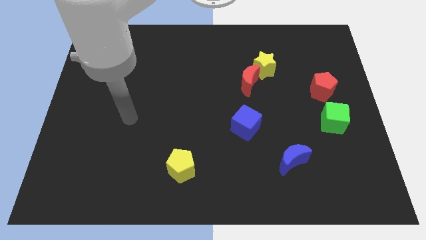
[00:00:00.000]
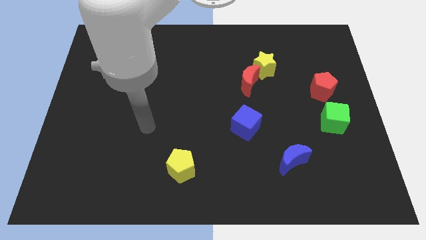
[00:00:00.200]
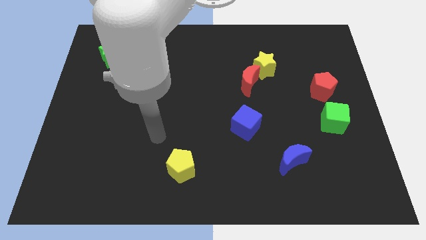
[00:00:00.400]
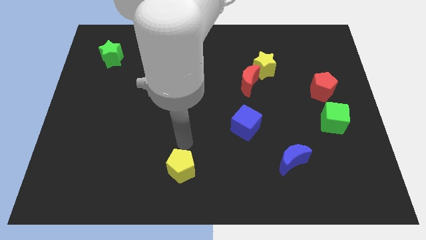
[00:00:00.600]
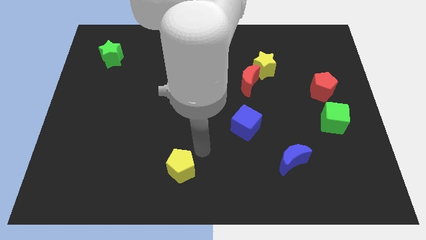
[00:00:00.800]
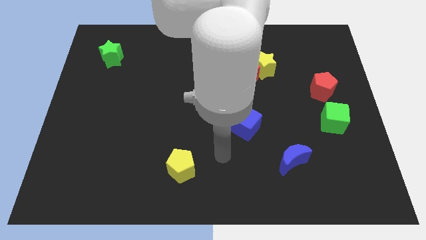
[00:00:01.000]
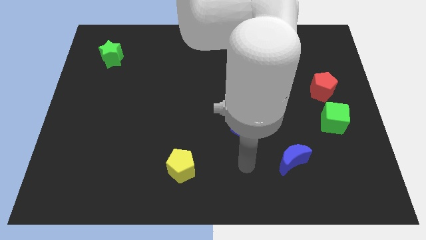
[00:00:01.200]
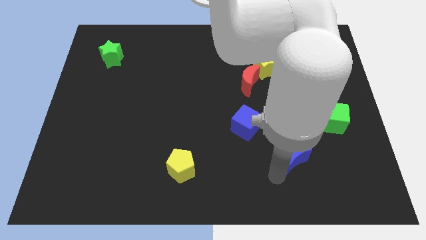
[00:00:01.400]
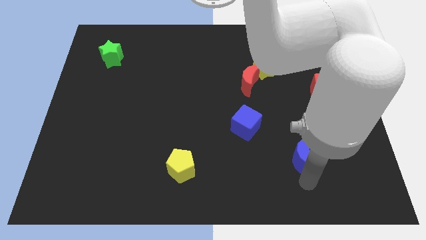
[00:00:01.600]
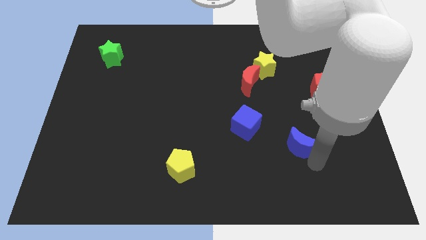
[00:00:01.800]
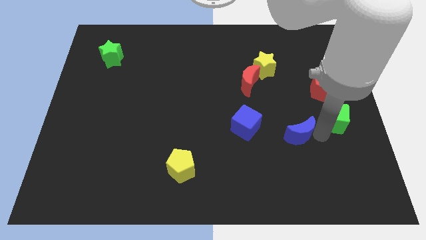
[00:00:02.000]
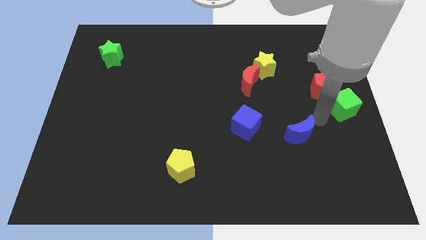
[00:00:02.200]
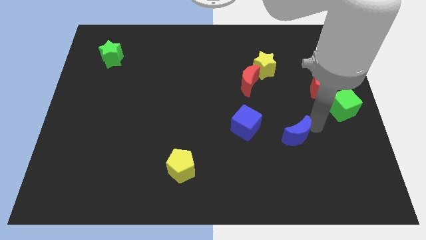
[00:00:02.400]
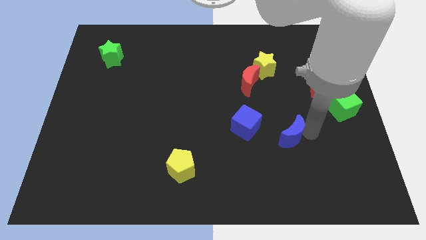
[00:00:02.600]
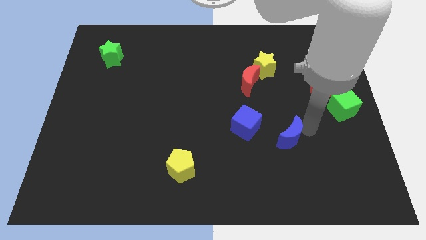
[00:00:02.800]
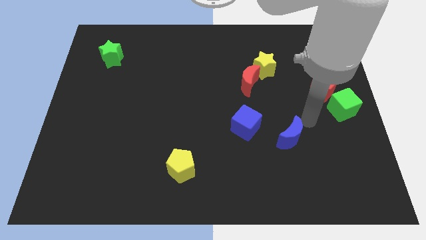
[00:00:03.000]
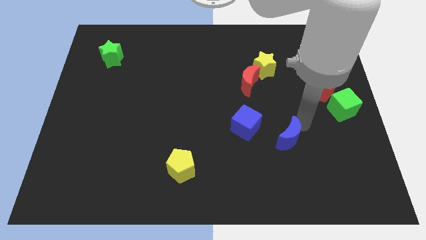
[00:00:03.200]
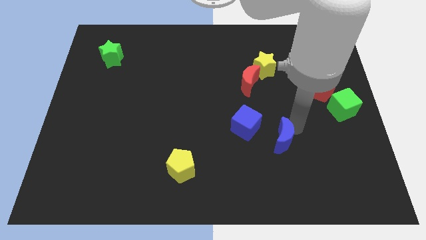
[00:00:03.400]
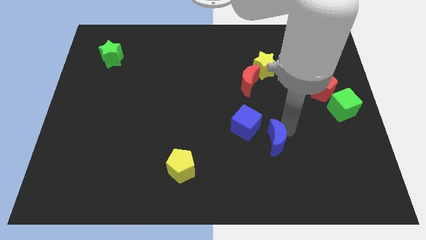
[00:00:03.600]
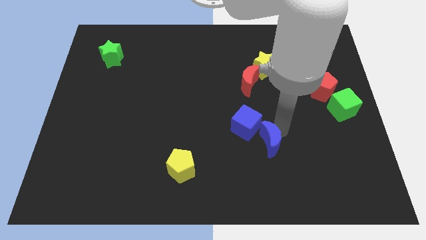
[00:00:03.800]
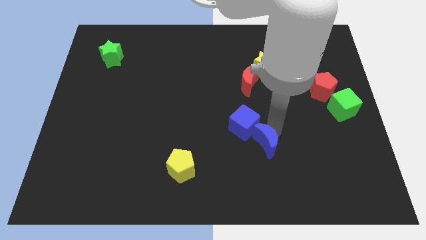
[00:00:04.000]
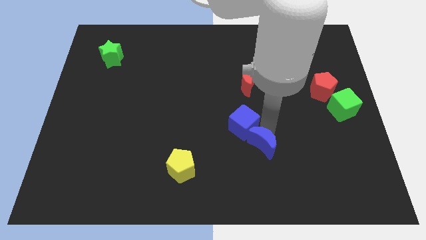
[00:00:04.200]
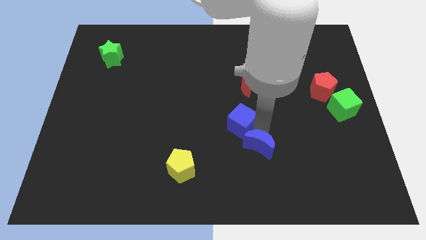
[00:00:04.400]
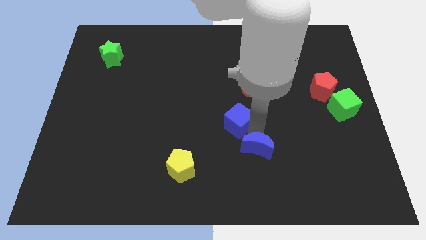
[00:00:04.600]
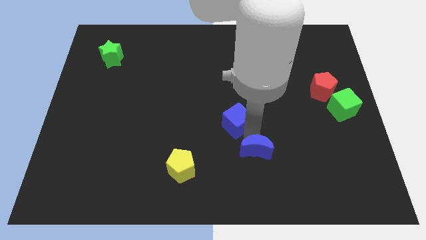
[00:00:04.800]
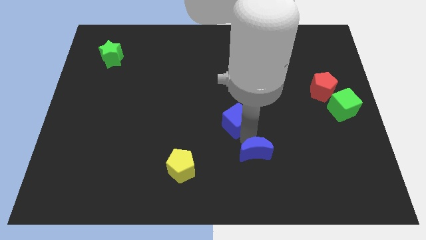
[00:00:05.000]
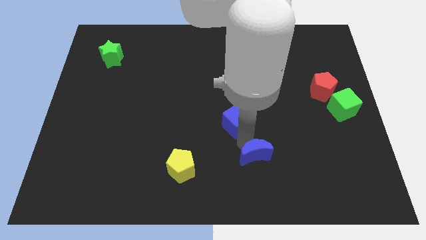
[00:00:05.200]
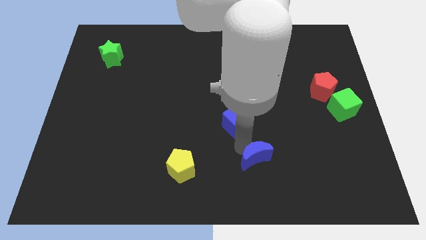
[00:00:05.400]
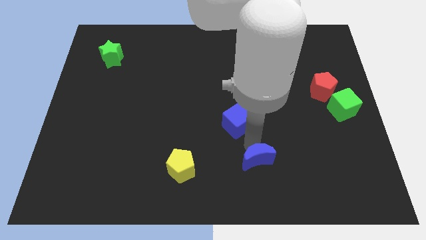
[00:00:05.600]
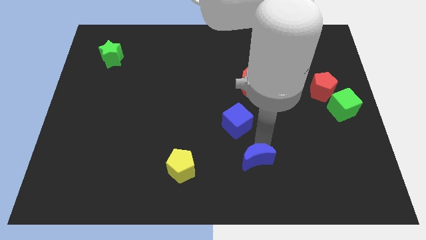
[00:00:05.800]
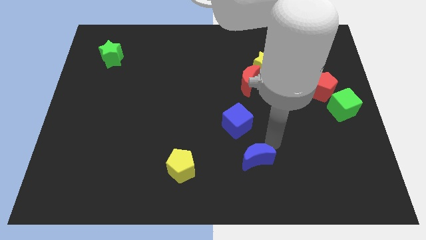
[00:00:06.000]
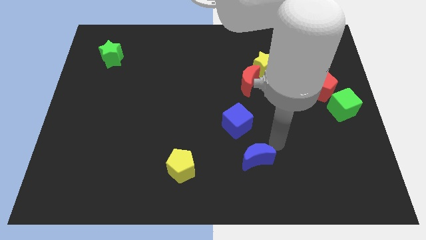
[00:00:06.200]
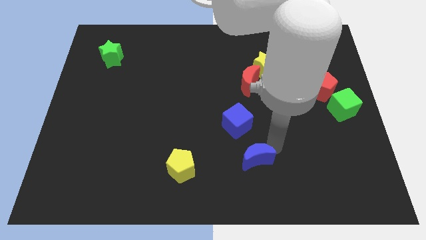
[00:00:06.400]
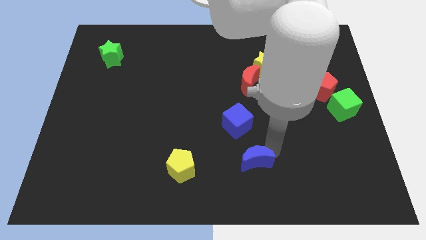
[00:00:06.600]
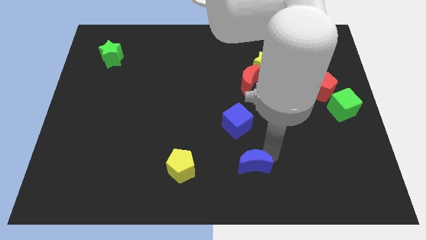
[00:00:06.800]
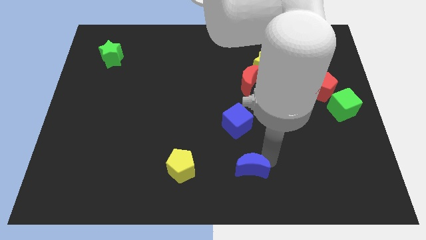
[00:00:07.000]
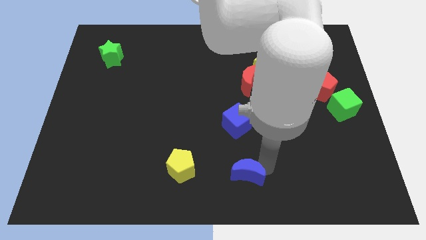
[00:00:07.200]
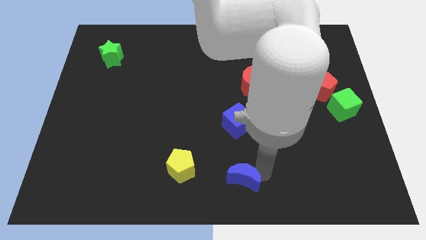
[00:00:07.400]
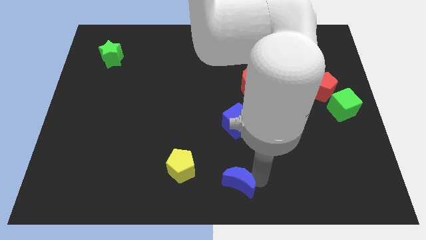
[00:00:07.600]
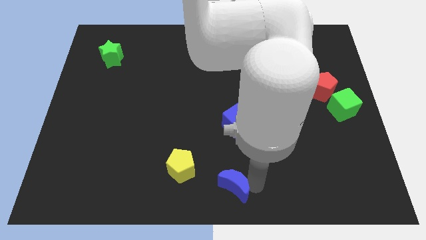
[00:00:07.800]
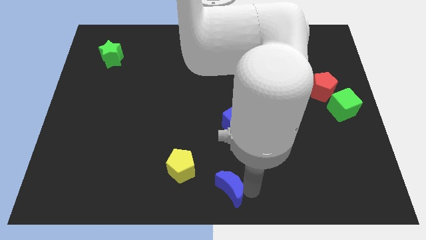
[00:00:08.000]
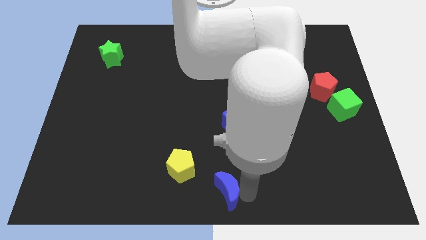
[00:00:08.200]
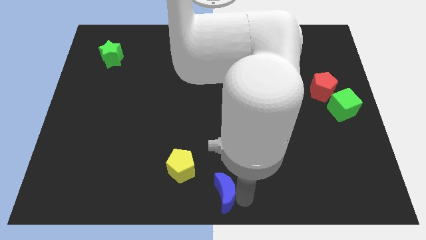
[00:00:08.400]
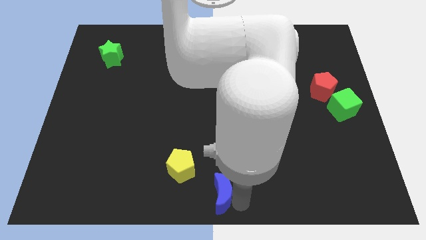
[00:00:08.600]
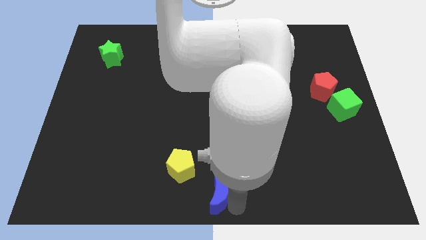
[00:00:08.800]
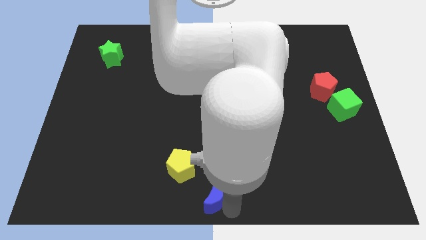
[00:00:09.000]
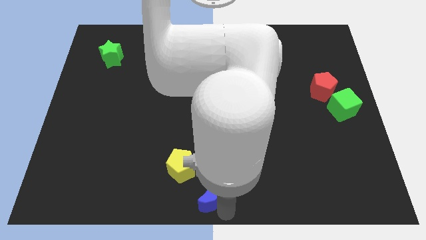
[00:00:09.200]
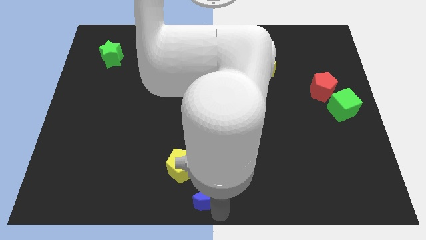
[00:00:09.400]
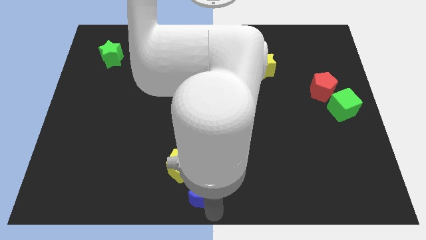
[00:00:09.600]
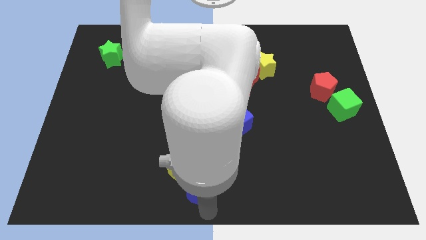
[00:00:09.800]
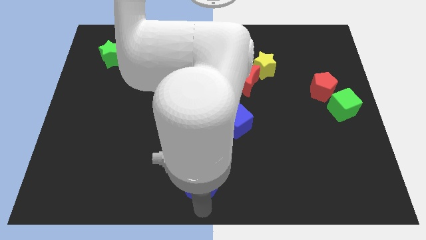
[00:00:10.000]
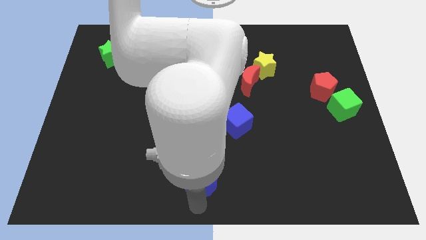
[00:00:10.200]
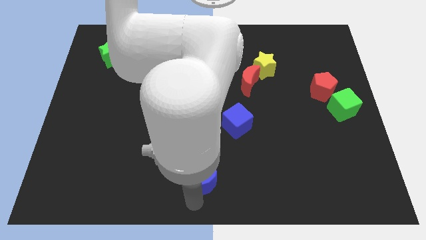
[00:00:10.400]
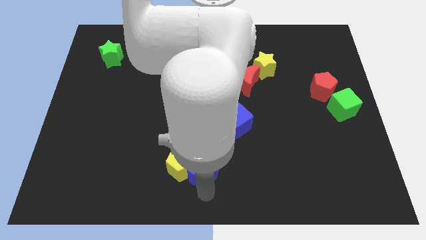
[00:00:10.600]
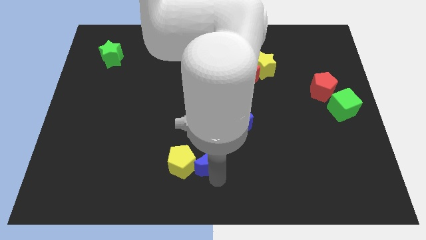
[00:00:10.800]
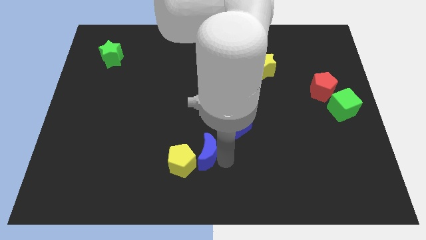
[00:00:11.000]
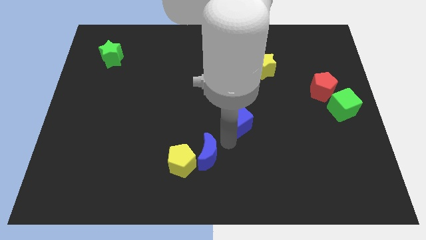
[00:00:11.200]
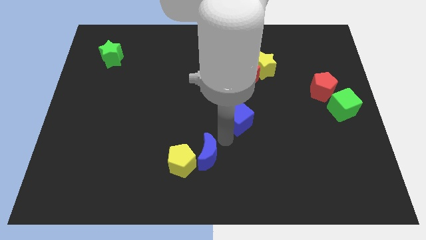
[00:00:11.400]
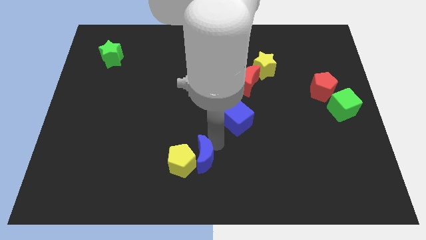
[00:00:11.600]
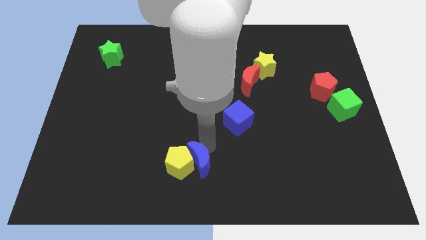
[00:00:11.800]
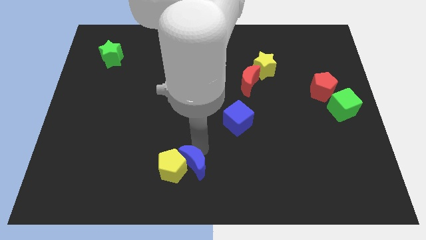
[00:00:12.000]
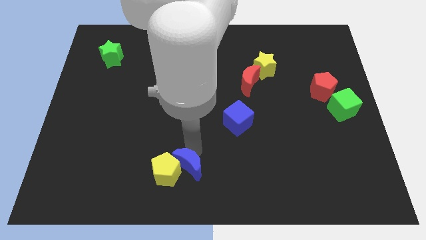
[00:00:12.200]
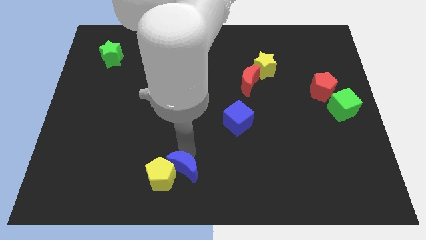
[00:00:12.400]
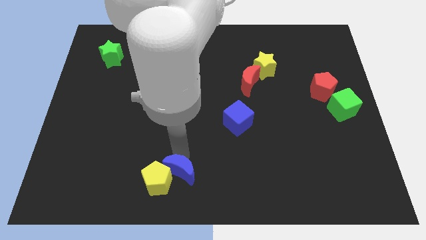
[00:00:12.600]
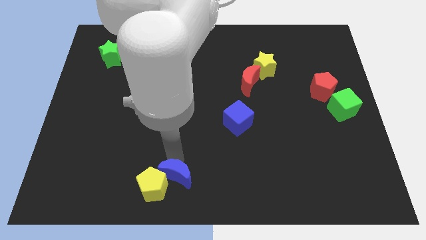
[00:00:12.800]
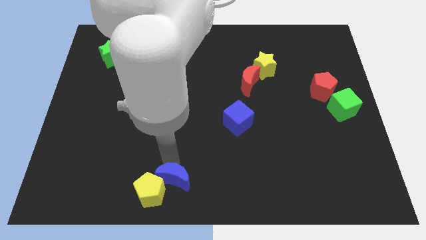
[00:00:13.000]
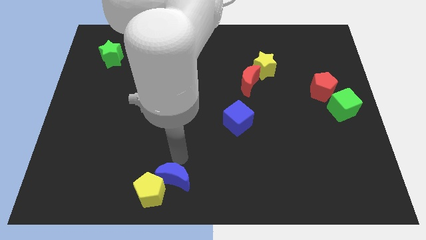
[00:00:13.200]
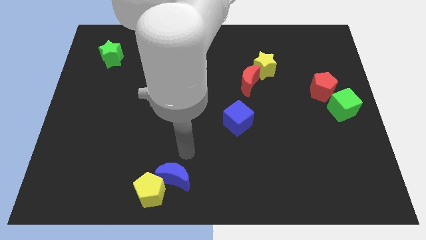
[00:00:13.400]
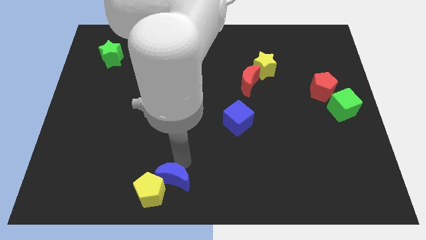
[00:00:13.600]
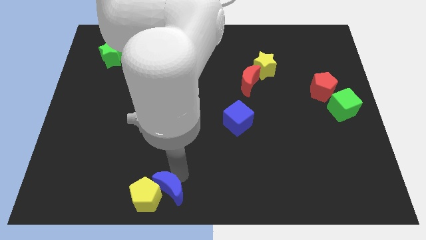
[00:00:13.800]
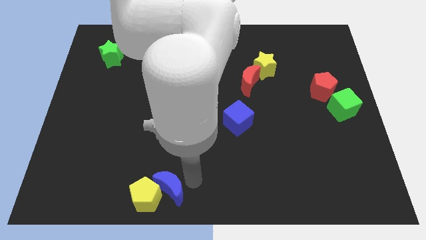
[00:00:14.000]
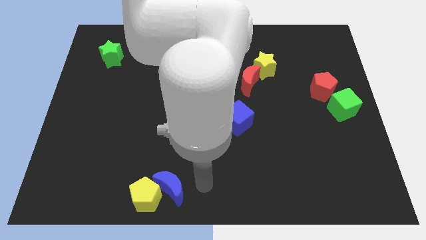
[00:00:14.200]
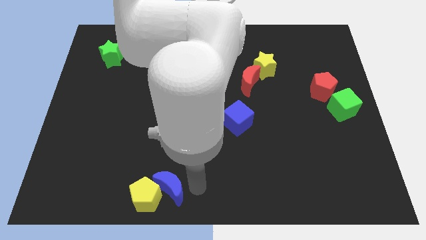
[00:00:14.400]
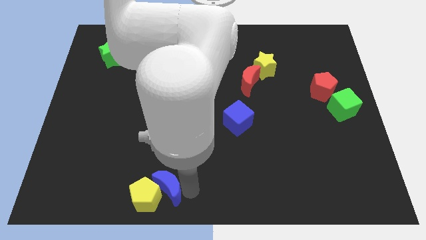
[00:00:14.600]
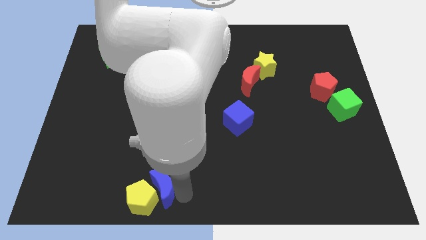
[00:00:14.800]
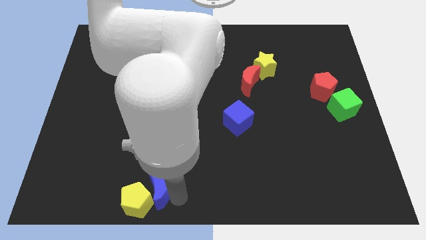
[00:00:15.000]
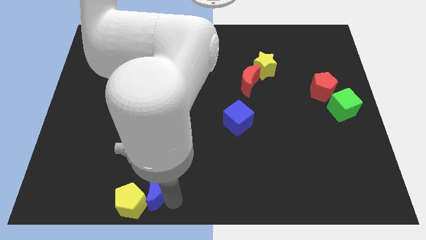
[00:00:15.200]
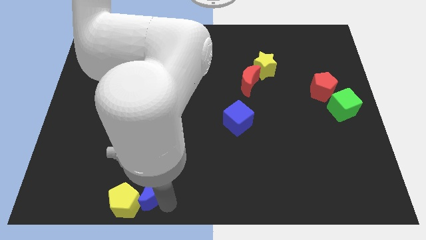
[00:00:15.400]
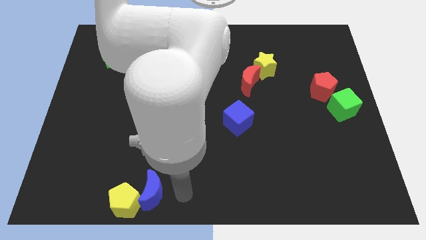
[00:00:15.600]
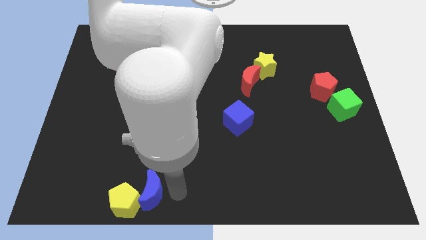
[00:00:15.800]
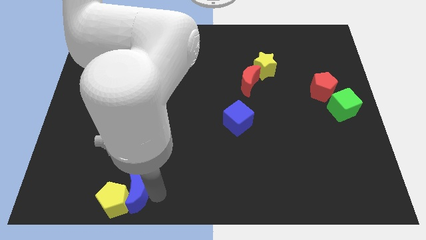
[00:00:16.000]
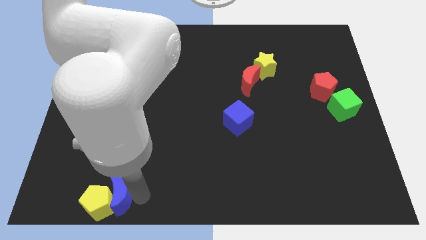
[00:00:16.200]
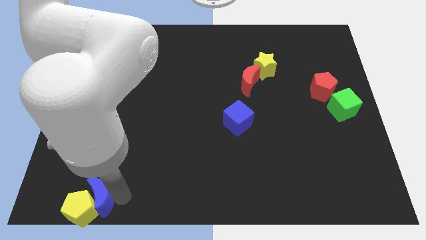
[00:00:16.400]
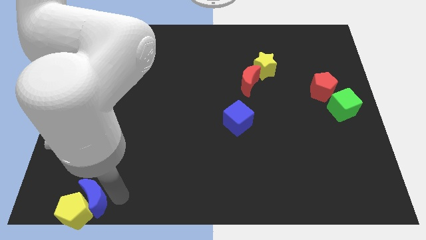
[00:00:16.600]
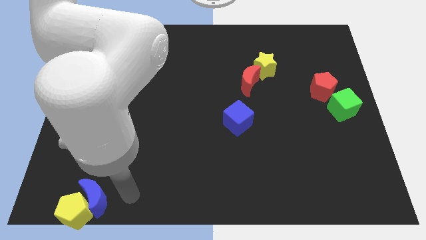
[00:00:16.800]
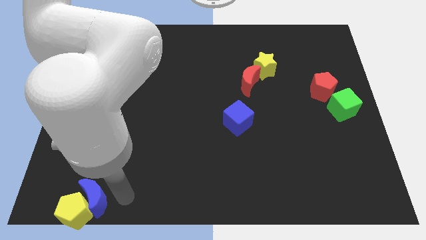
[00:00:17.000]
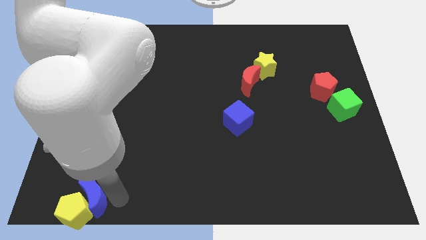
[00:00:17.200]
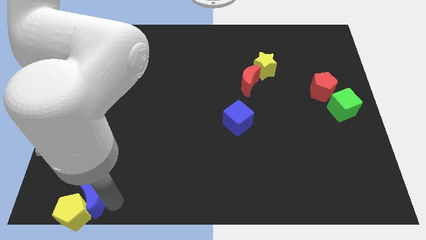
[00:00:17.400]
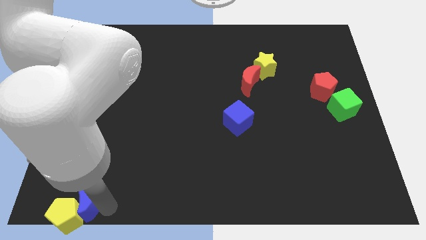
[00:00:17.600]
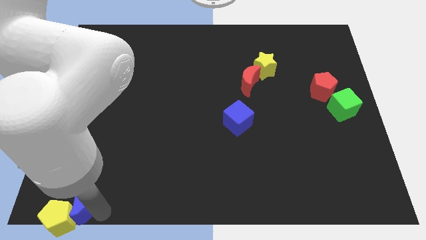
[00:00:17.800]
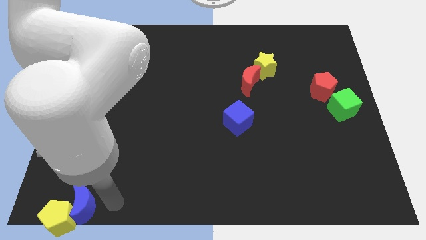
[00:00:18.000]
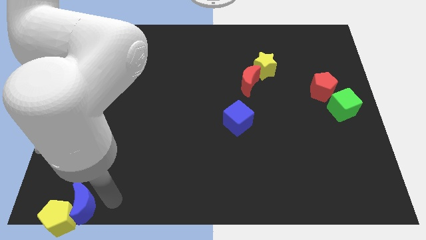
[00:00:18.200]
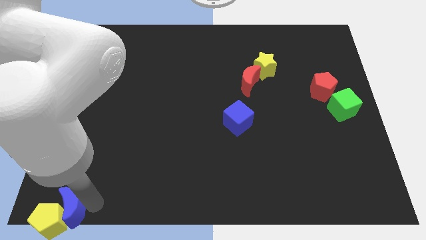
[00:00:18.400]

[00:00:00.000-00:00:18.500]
slide the blue moon to the lower left corner
